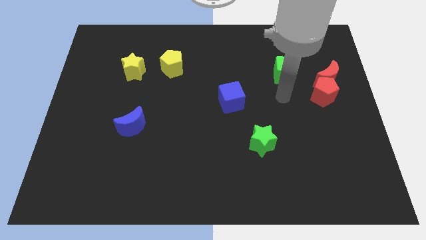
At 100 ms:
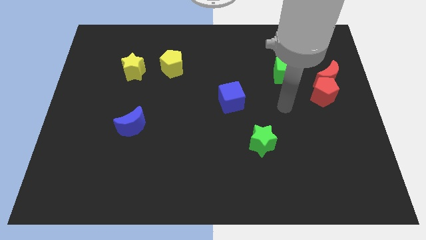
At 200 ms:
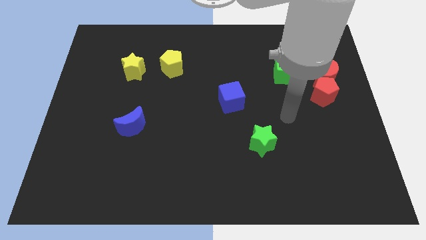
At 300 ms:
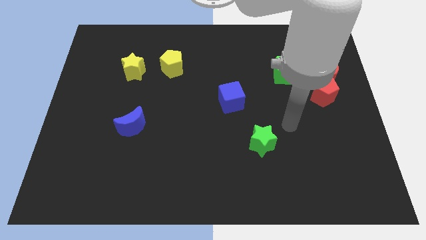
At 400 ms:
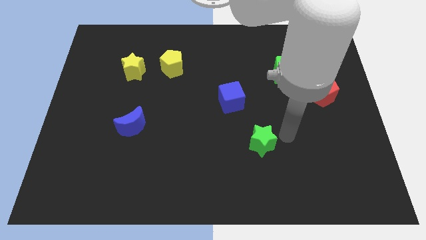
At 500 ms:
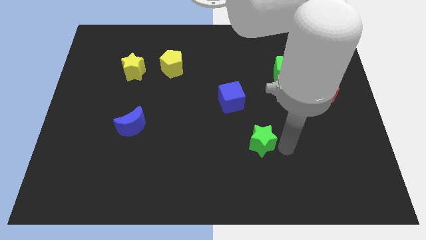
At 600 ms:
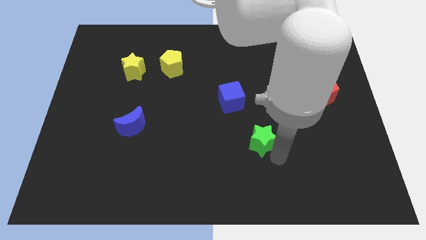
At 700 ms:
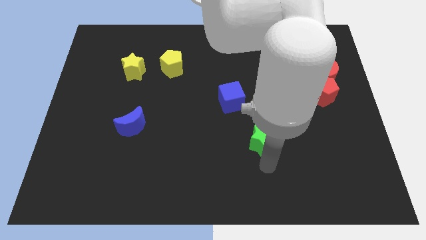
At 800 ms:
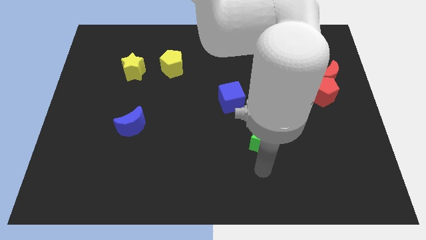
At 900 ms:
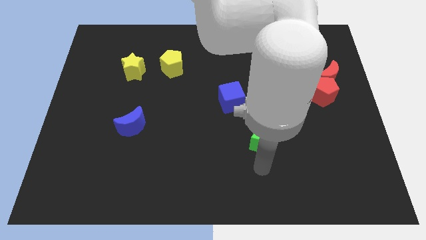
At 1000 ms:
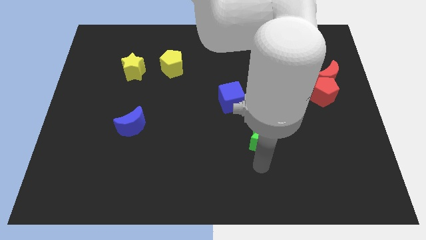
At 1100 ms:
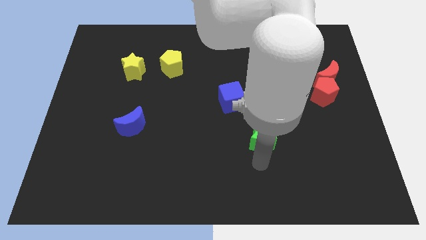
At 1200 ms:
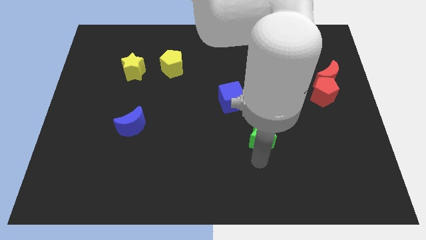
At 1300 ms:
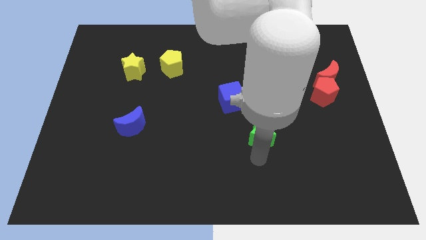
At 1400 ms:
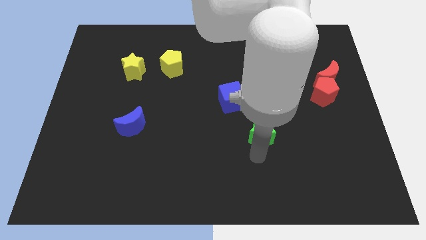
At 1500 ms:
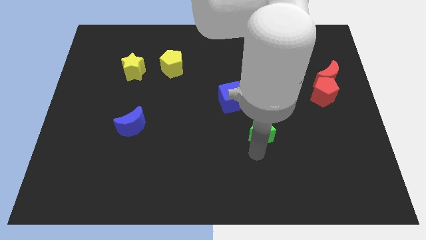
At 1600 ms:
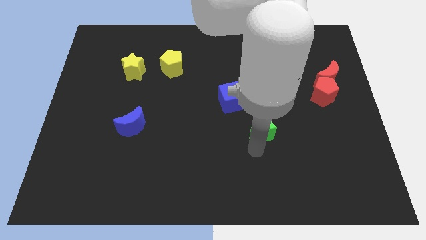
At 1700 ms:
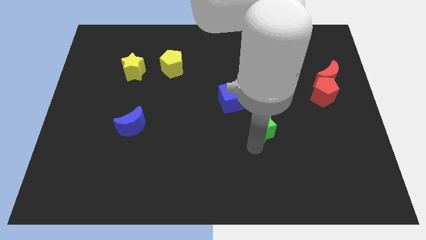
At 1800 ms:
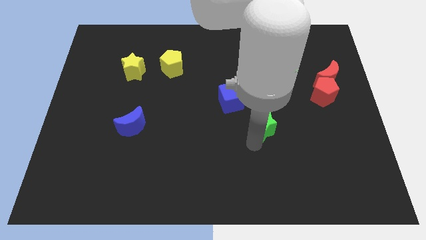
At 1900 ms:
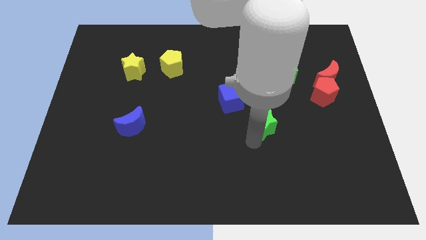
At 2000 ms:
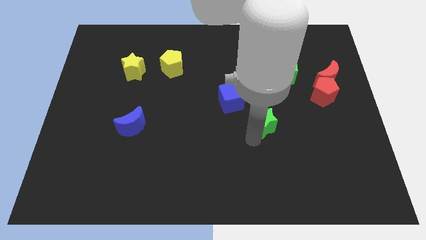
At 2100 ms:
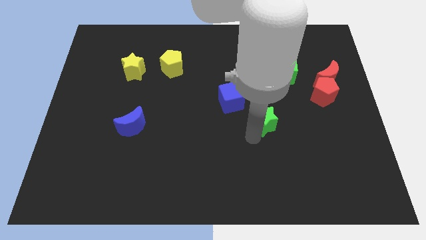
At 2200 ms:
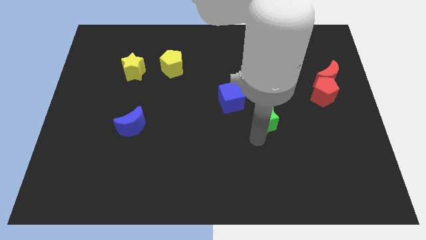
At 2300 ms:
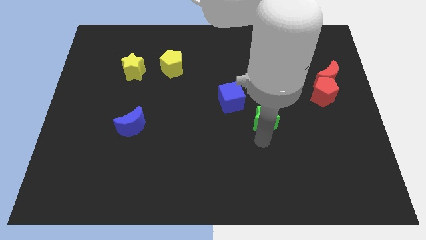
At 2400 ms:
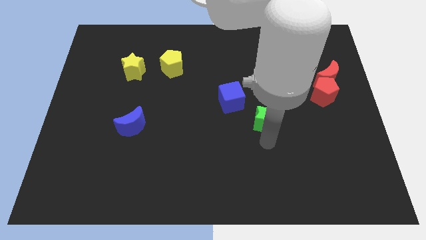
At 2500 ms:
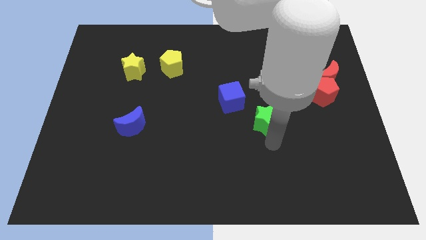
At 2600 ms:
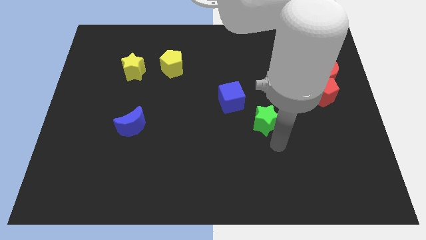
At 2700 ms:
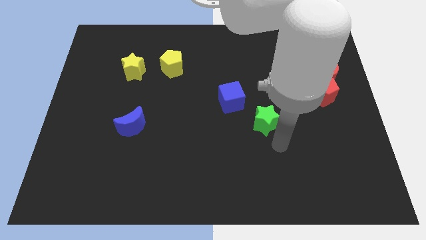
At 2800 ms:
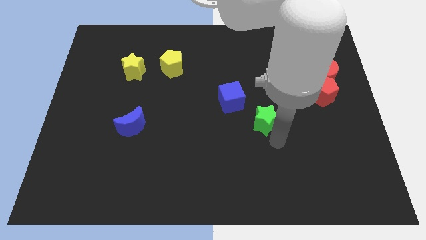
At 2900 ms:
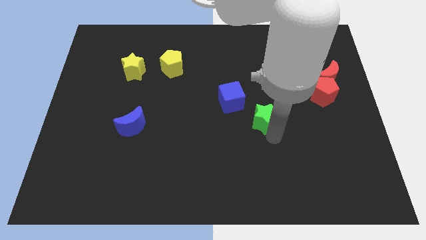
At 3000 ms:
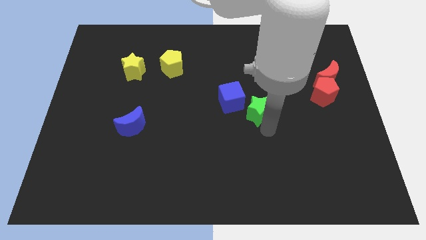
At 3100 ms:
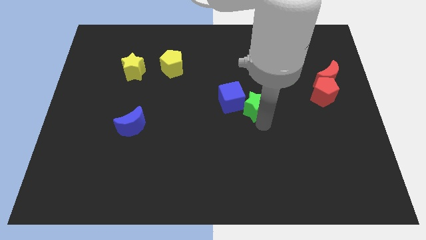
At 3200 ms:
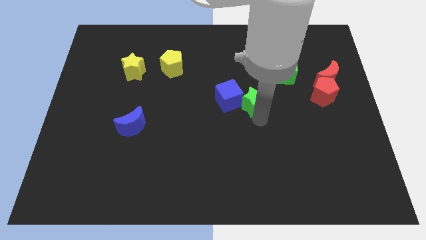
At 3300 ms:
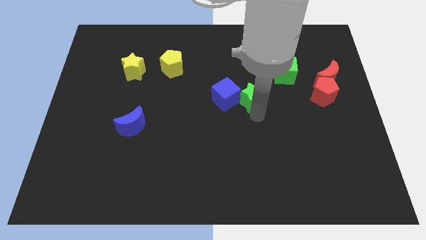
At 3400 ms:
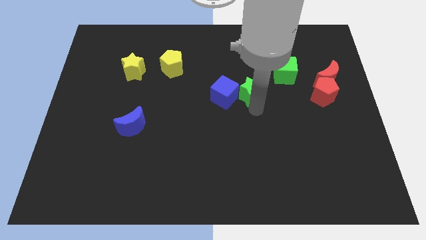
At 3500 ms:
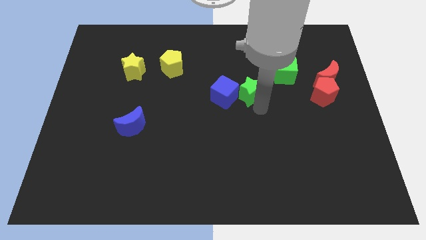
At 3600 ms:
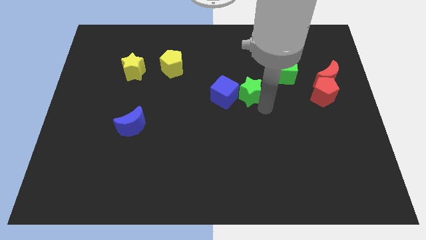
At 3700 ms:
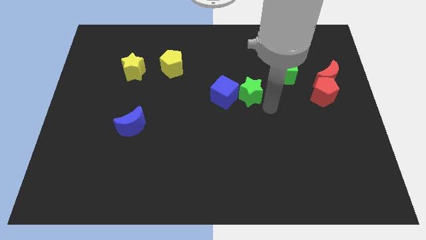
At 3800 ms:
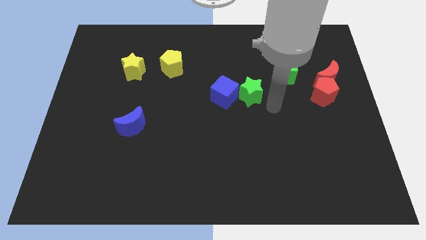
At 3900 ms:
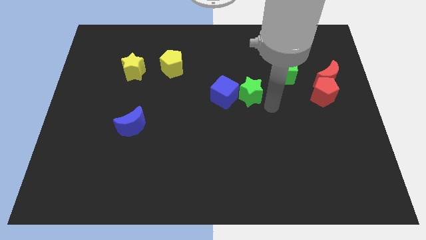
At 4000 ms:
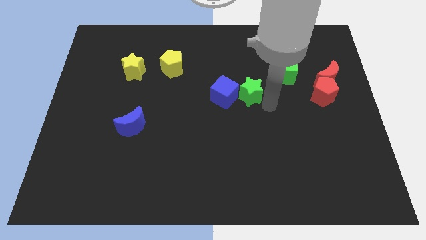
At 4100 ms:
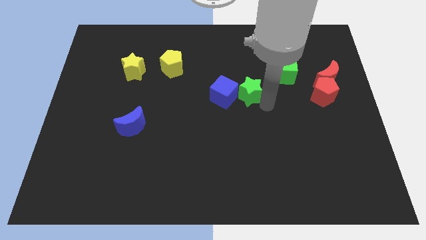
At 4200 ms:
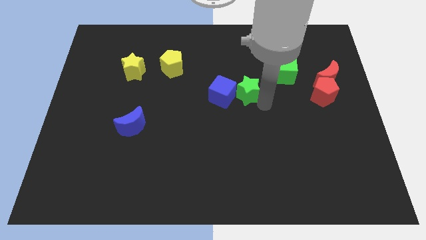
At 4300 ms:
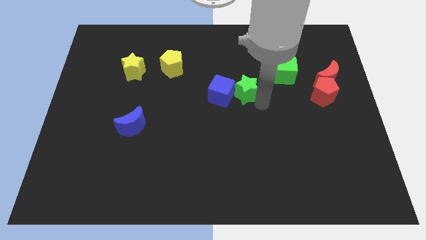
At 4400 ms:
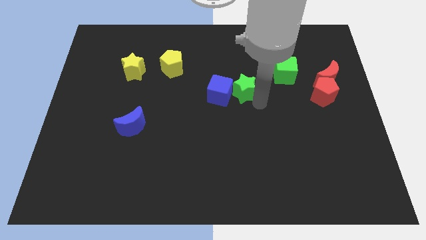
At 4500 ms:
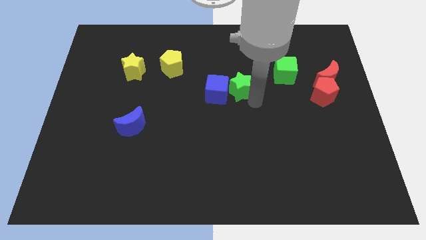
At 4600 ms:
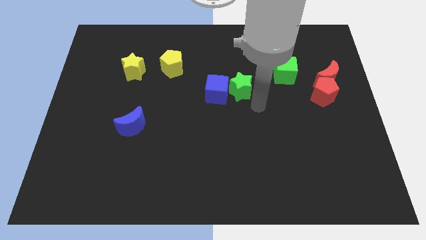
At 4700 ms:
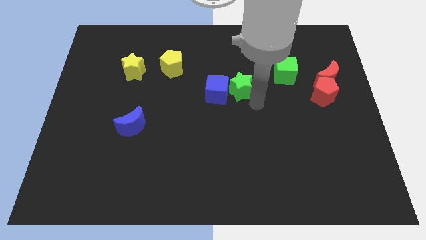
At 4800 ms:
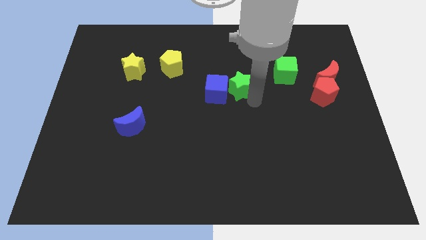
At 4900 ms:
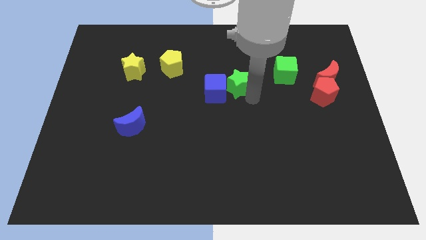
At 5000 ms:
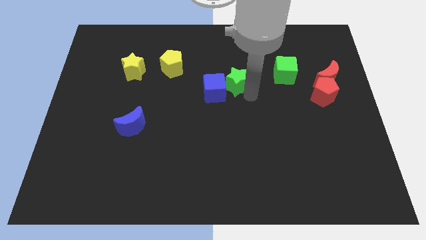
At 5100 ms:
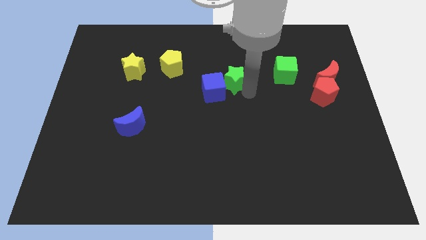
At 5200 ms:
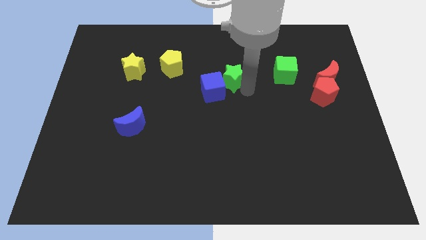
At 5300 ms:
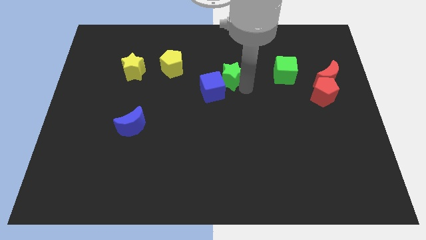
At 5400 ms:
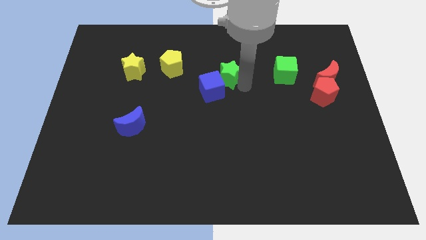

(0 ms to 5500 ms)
put the green star to the right of the yellow pentagon
